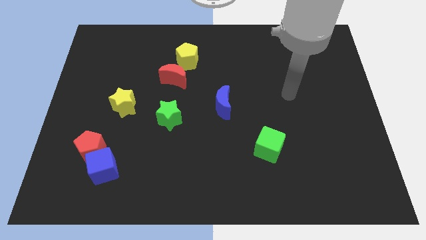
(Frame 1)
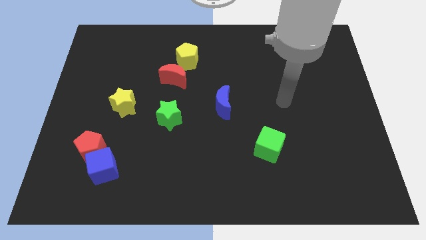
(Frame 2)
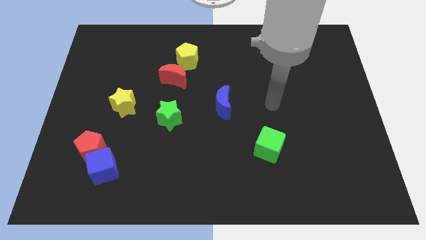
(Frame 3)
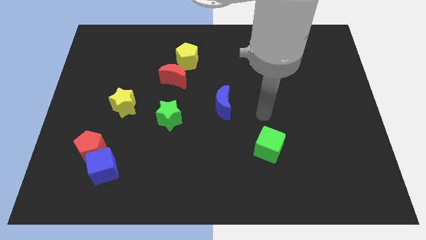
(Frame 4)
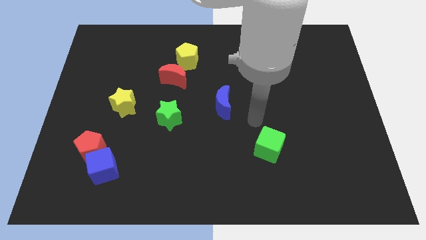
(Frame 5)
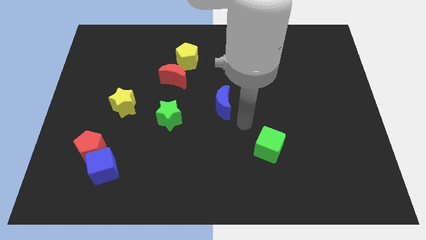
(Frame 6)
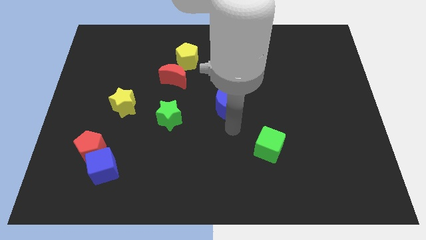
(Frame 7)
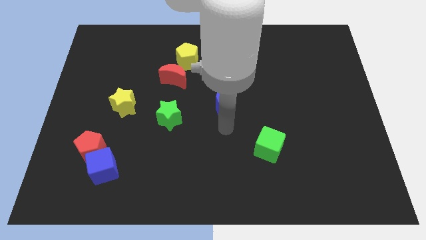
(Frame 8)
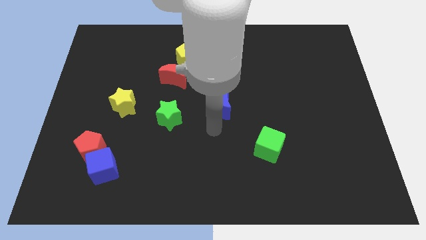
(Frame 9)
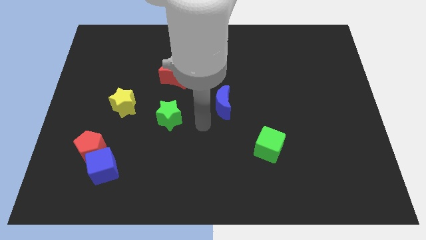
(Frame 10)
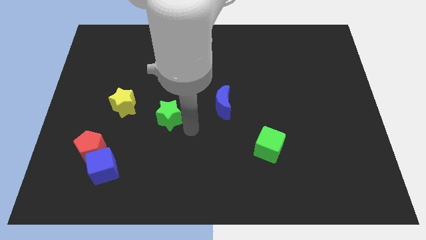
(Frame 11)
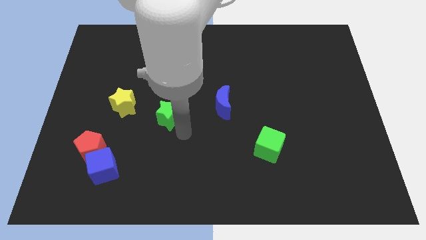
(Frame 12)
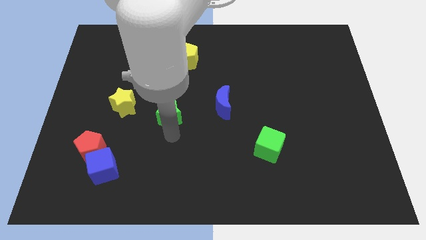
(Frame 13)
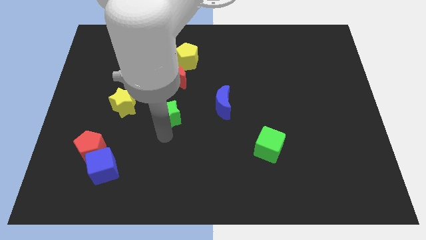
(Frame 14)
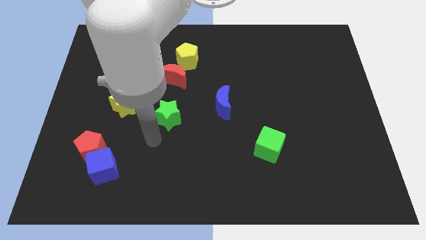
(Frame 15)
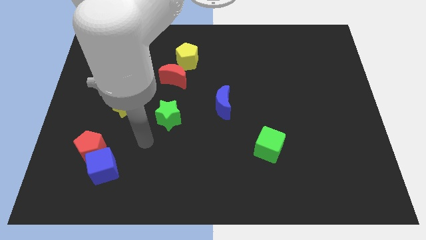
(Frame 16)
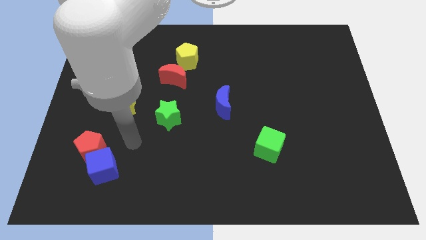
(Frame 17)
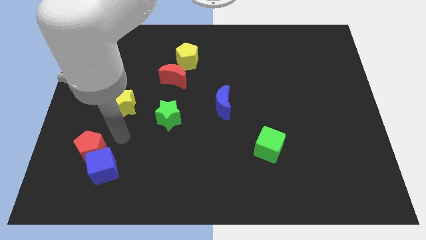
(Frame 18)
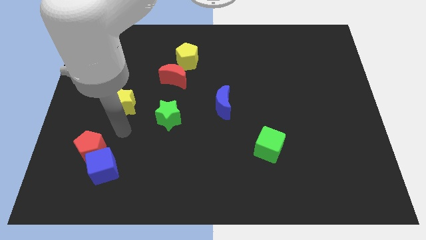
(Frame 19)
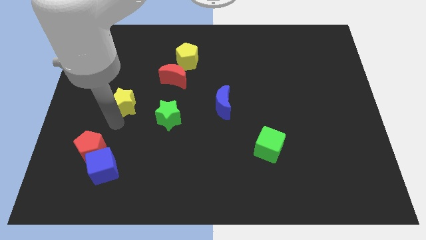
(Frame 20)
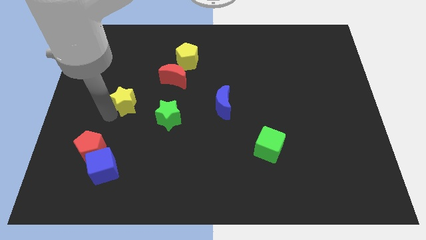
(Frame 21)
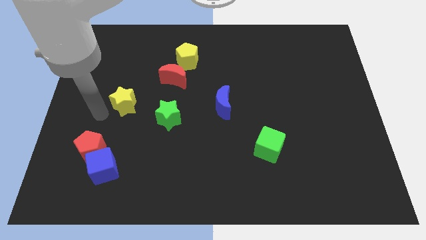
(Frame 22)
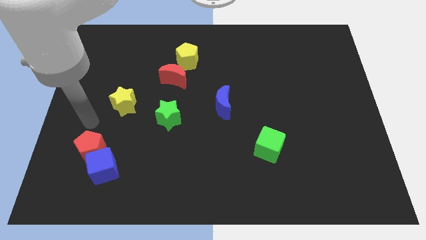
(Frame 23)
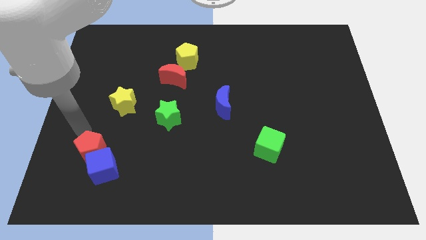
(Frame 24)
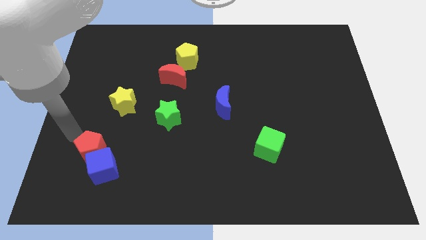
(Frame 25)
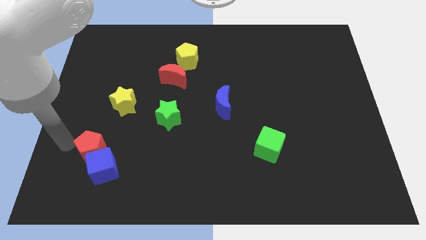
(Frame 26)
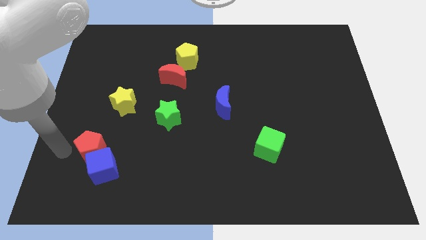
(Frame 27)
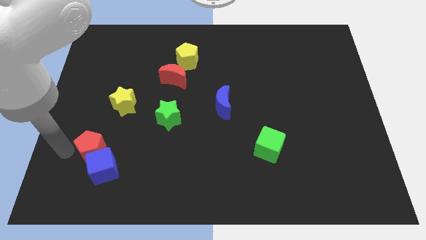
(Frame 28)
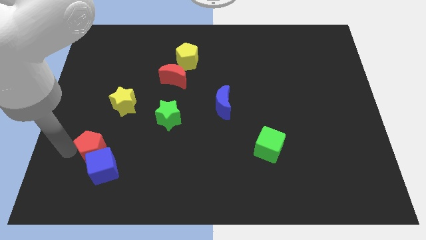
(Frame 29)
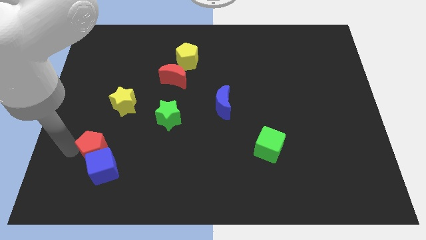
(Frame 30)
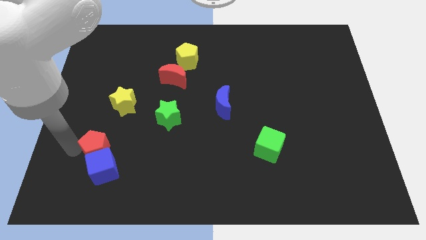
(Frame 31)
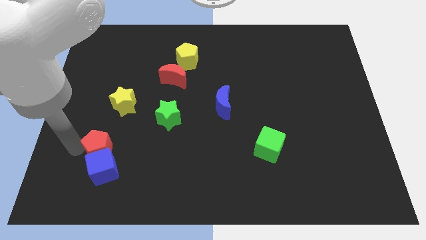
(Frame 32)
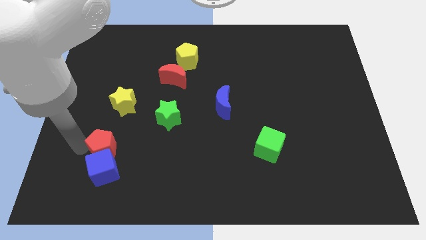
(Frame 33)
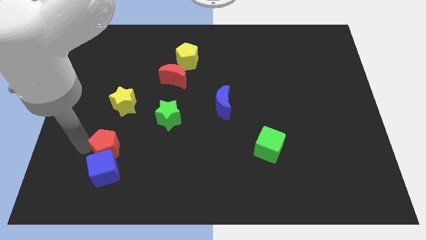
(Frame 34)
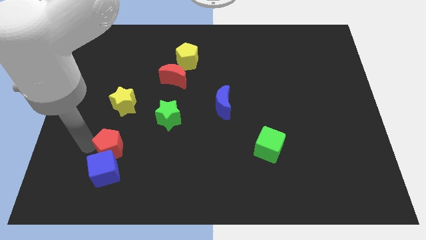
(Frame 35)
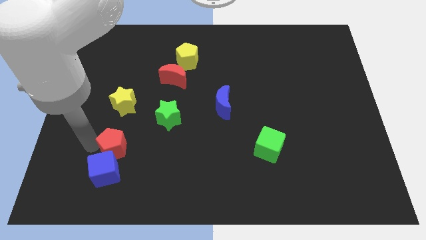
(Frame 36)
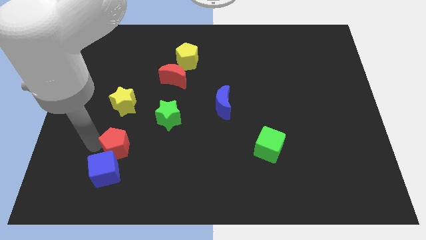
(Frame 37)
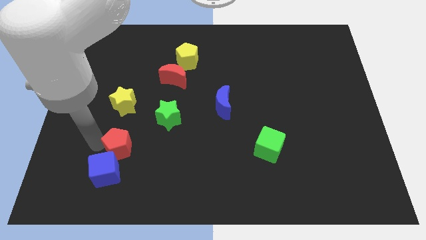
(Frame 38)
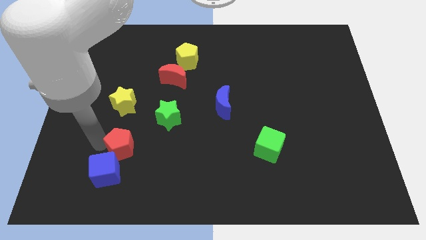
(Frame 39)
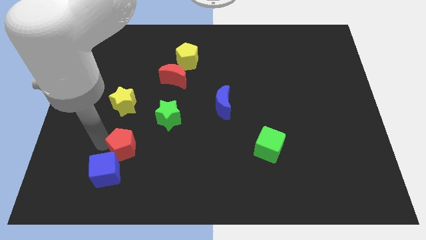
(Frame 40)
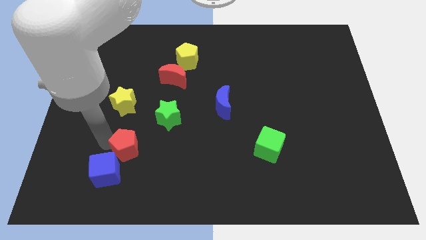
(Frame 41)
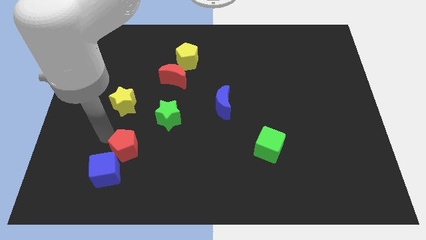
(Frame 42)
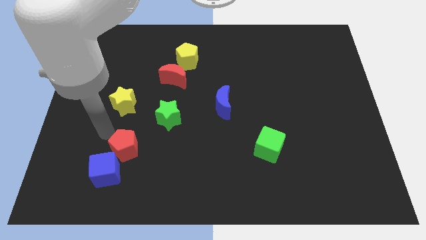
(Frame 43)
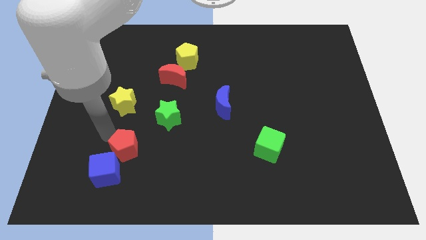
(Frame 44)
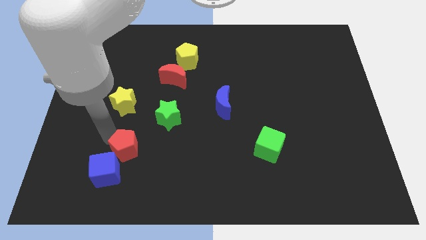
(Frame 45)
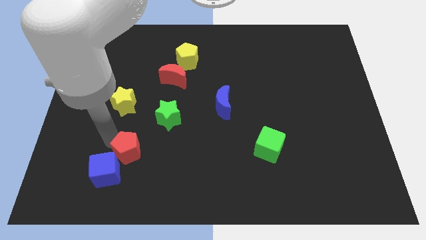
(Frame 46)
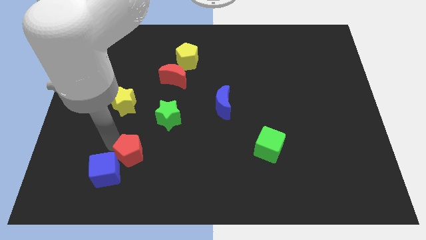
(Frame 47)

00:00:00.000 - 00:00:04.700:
push the red pentagon to the right side of the blue cube

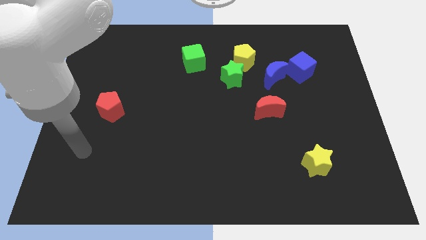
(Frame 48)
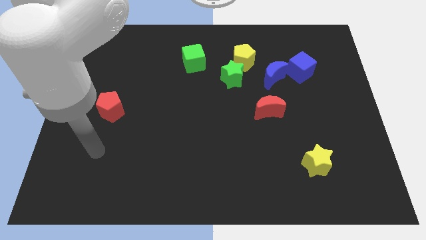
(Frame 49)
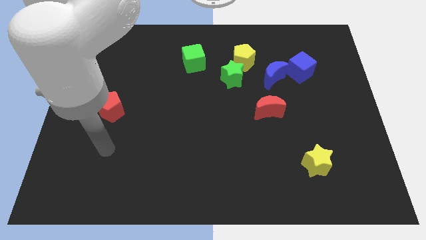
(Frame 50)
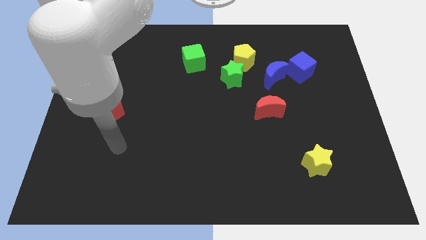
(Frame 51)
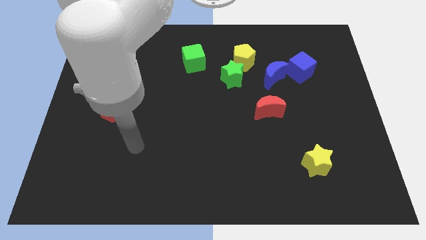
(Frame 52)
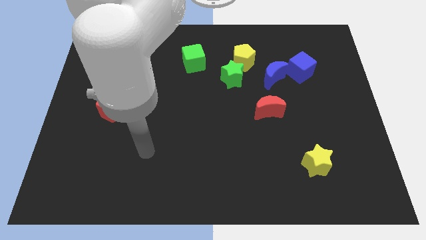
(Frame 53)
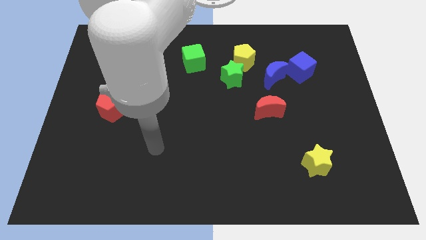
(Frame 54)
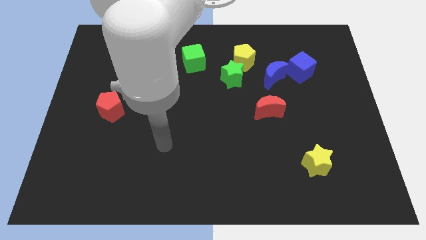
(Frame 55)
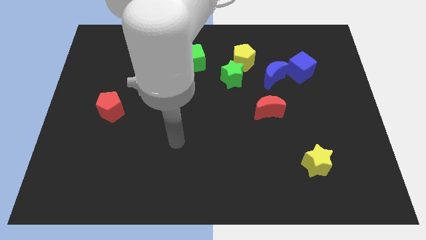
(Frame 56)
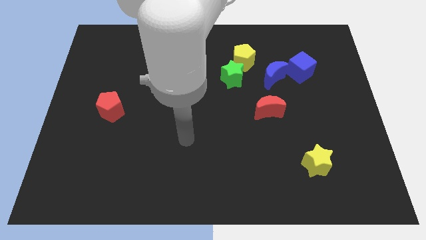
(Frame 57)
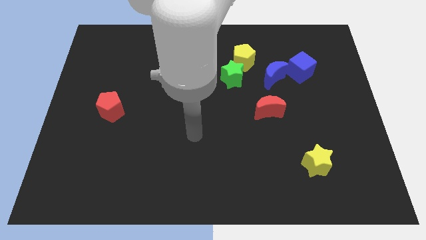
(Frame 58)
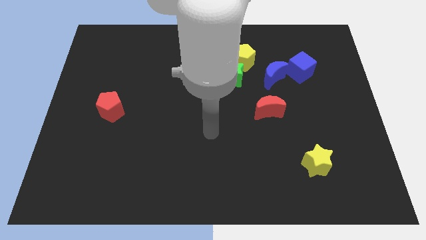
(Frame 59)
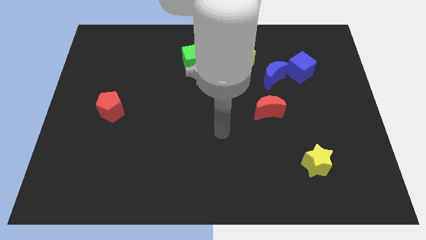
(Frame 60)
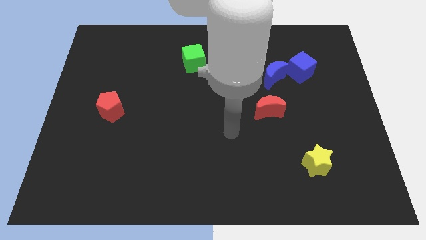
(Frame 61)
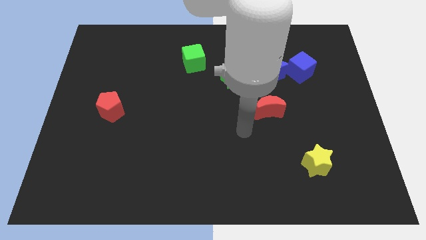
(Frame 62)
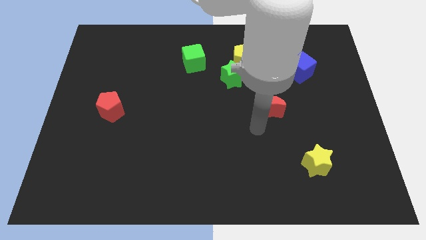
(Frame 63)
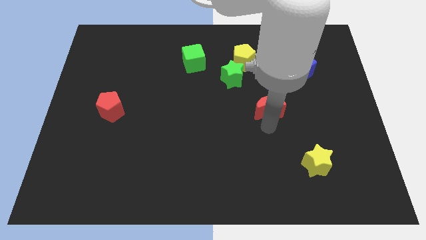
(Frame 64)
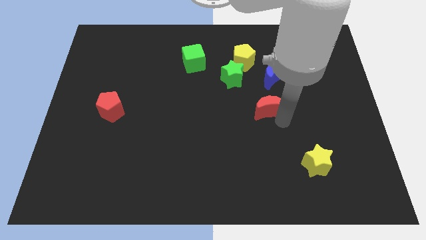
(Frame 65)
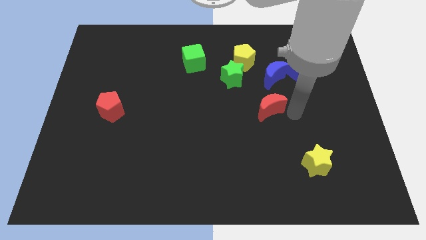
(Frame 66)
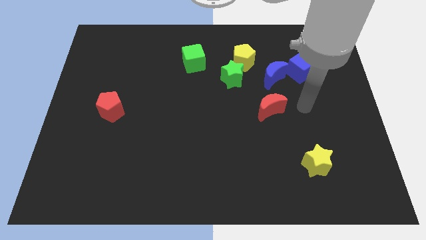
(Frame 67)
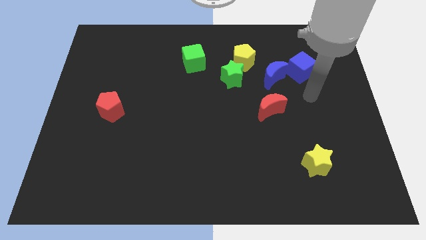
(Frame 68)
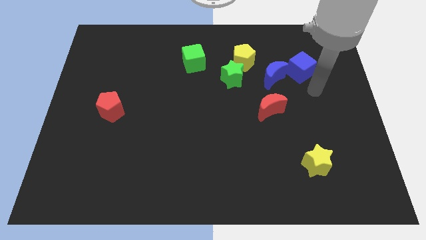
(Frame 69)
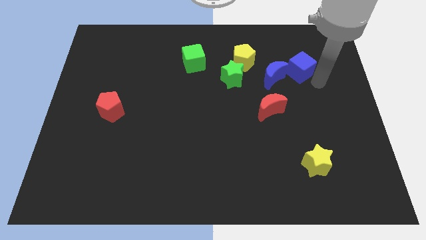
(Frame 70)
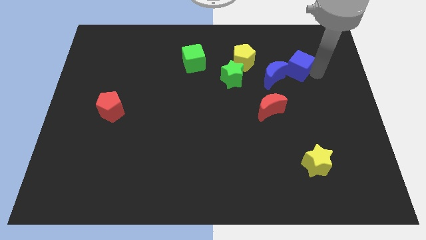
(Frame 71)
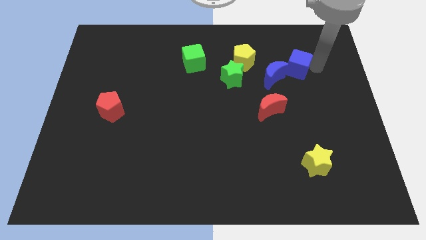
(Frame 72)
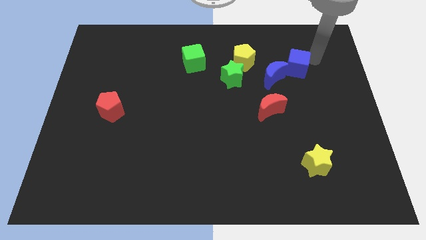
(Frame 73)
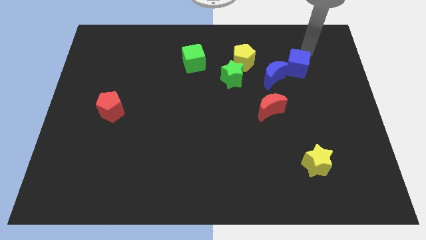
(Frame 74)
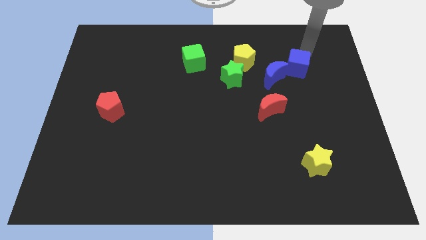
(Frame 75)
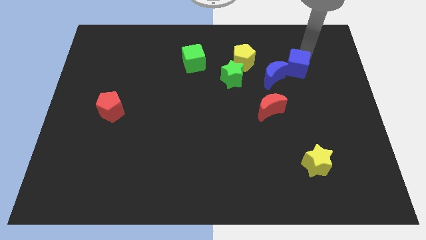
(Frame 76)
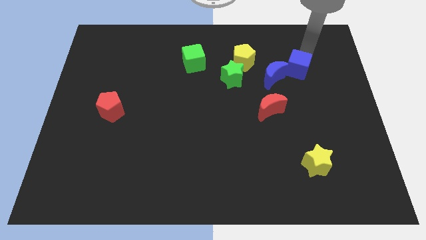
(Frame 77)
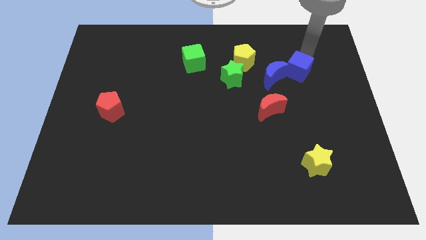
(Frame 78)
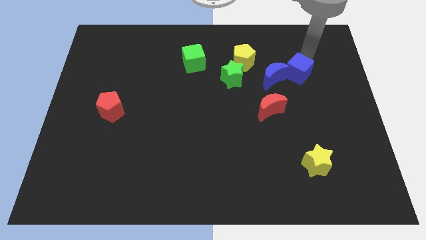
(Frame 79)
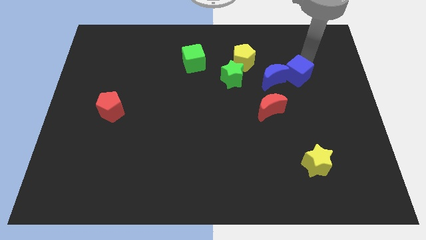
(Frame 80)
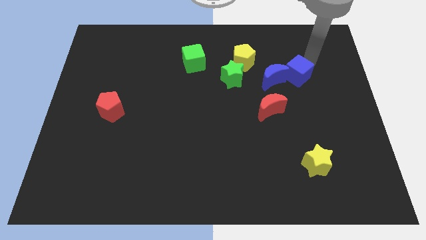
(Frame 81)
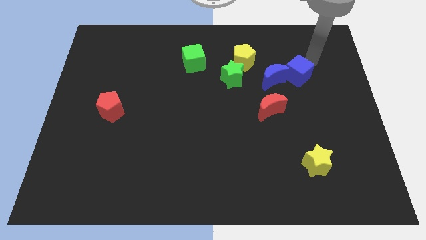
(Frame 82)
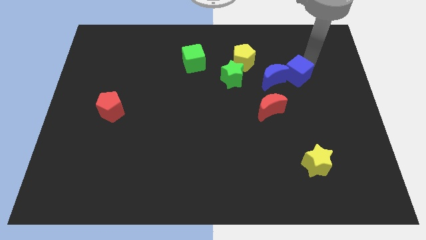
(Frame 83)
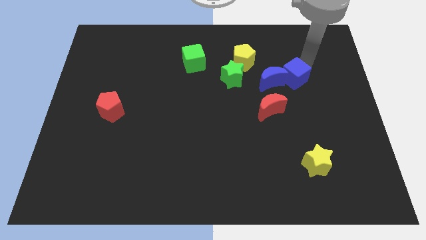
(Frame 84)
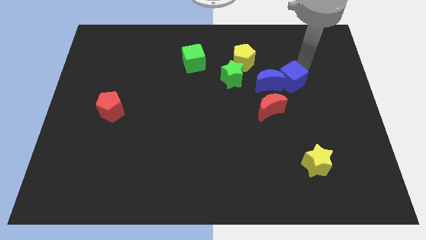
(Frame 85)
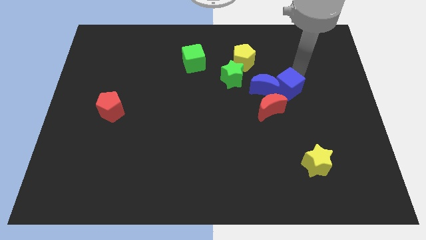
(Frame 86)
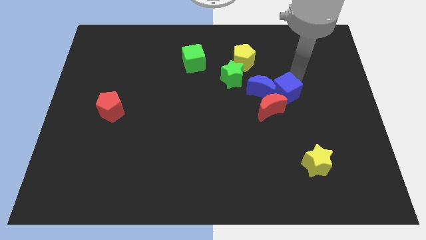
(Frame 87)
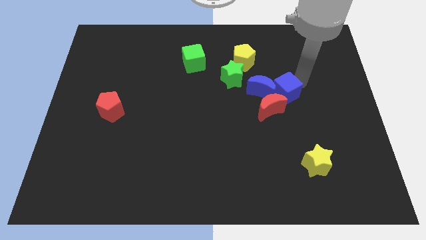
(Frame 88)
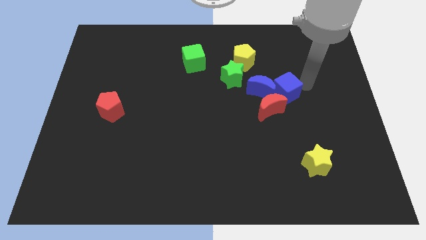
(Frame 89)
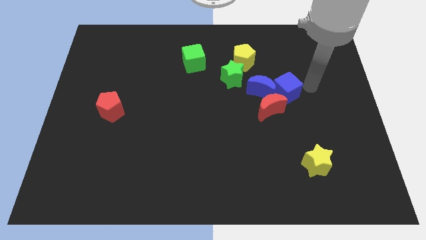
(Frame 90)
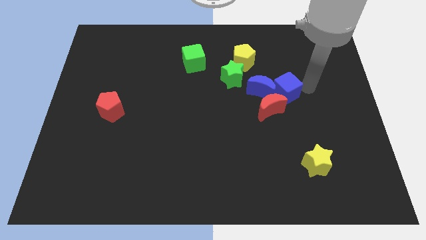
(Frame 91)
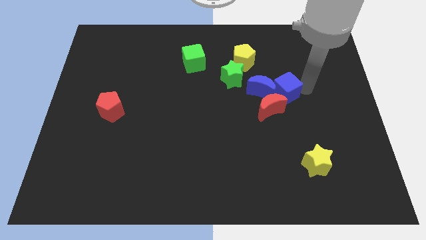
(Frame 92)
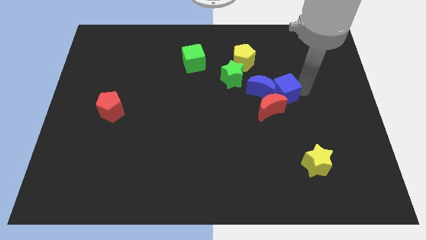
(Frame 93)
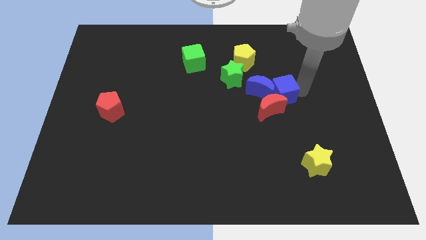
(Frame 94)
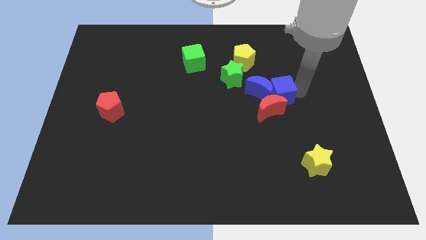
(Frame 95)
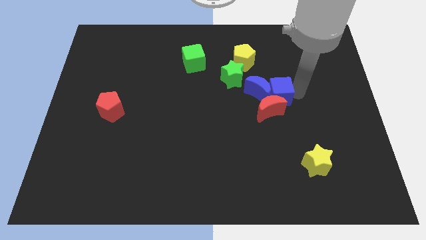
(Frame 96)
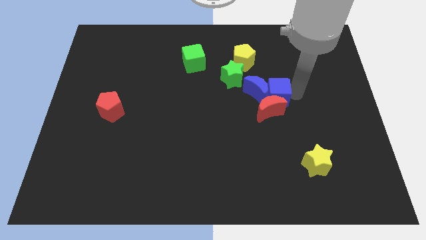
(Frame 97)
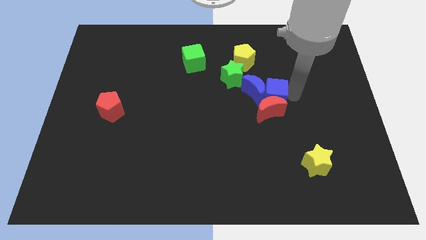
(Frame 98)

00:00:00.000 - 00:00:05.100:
push the blue cube to the top left side of the red moon
